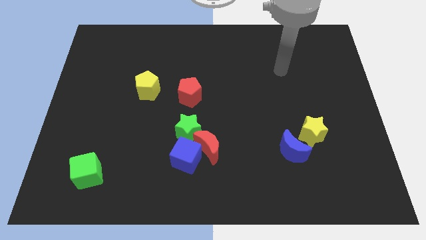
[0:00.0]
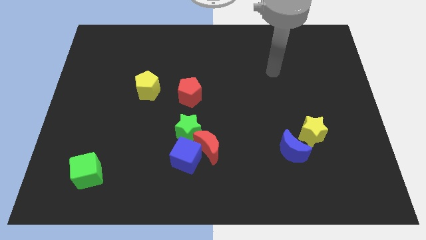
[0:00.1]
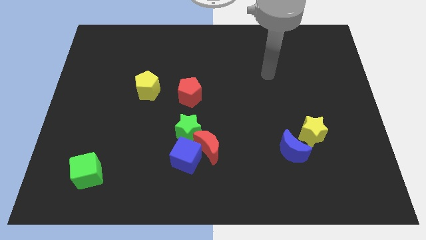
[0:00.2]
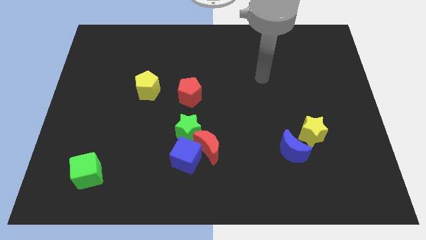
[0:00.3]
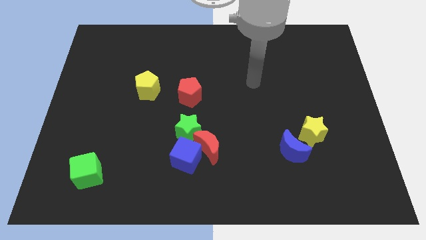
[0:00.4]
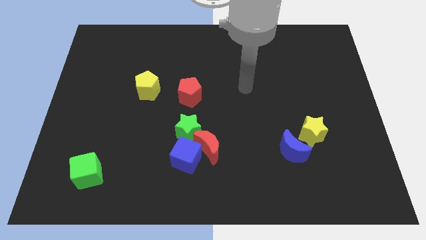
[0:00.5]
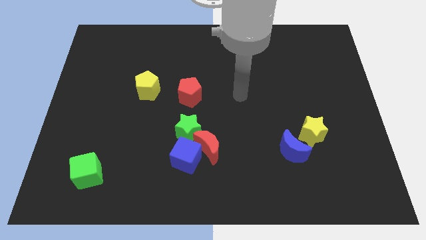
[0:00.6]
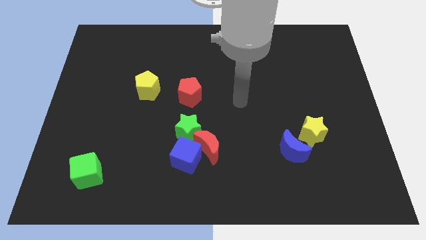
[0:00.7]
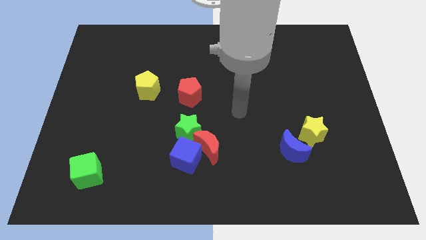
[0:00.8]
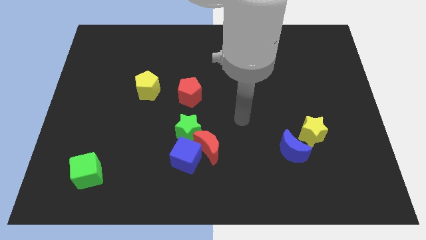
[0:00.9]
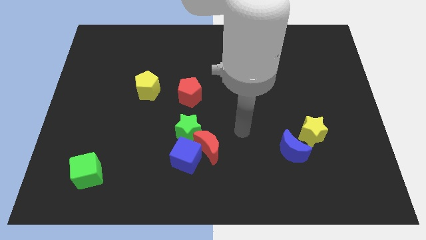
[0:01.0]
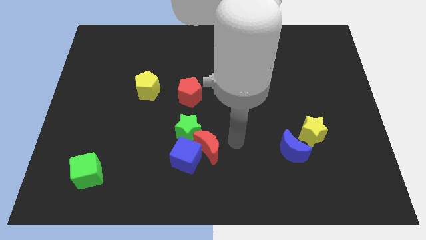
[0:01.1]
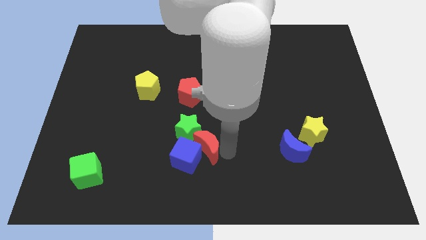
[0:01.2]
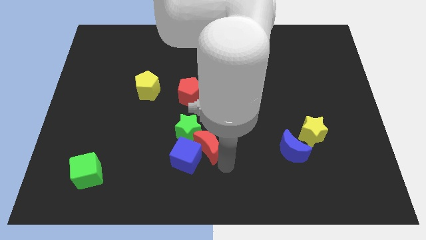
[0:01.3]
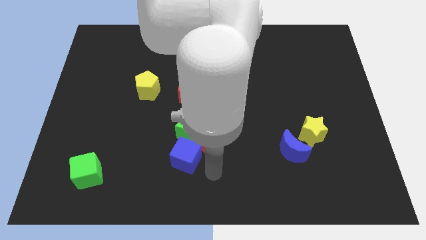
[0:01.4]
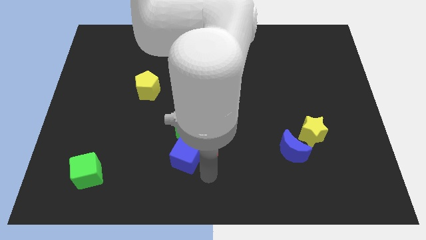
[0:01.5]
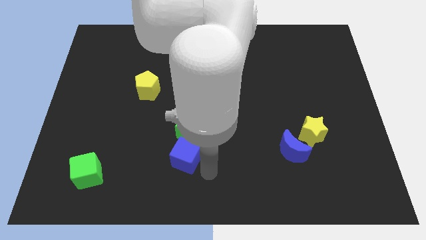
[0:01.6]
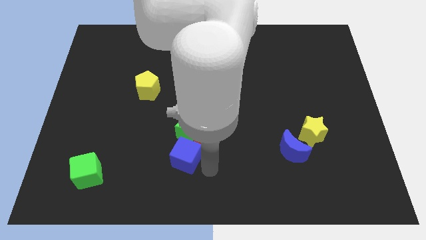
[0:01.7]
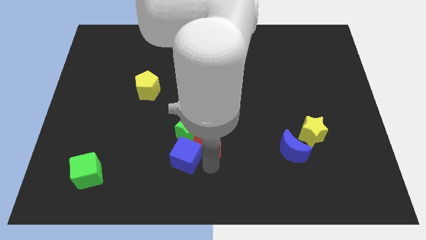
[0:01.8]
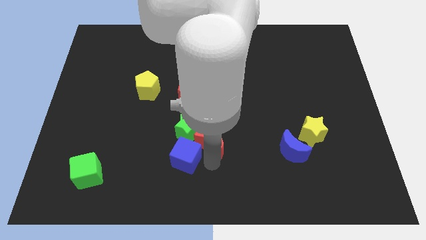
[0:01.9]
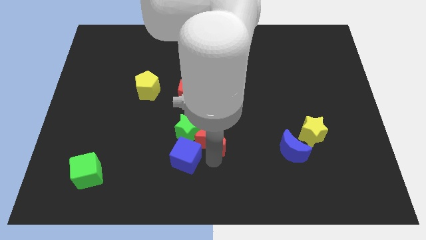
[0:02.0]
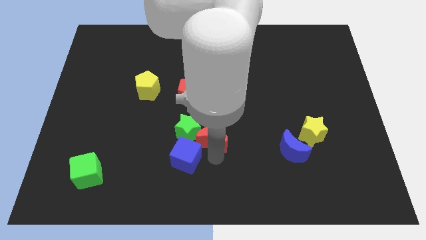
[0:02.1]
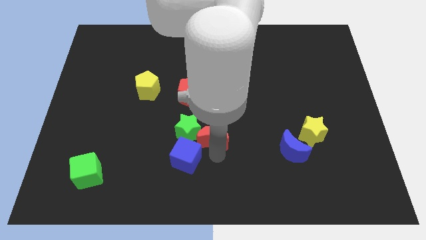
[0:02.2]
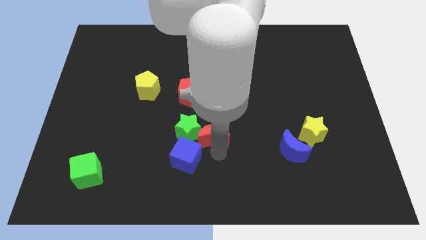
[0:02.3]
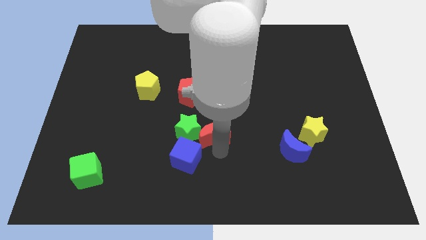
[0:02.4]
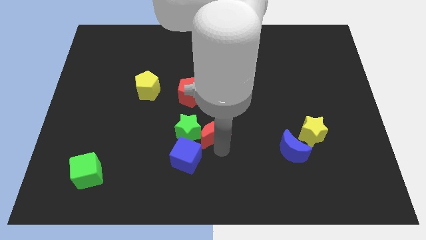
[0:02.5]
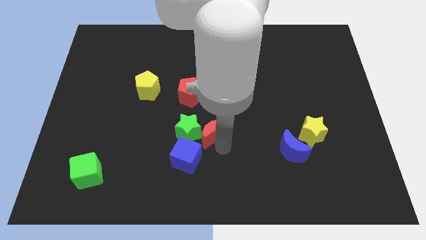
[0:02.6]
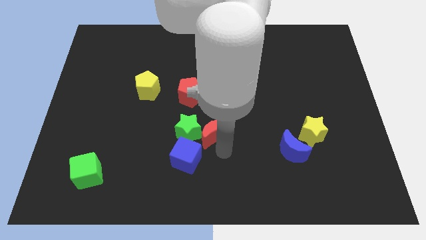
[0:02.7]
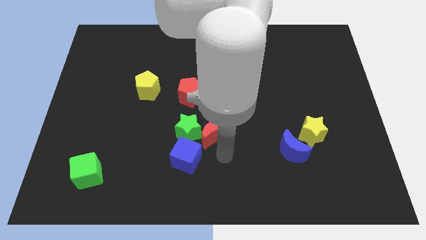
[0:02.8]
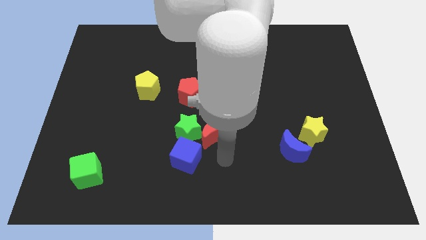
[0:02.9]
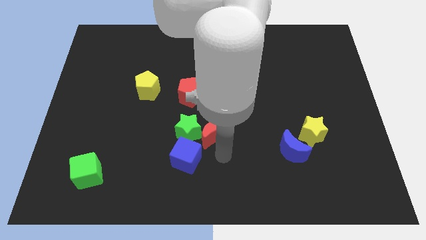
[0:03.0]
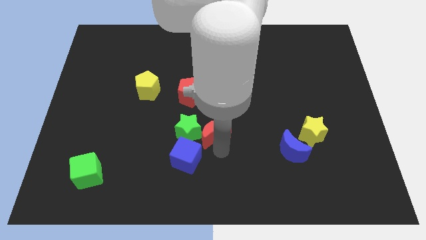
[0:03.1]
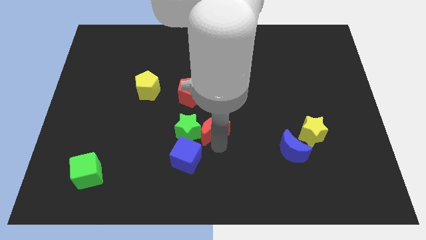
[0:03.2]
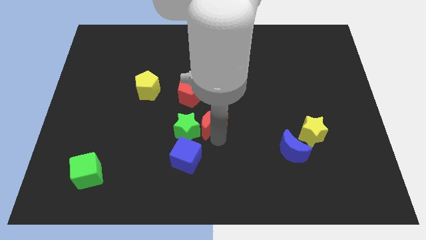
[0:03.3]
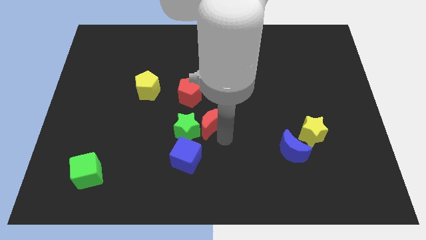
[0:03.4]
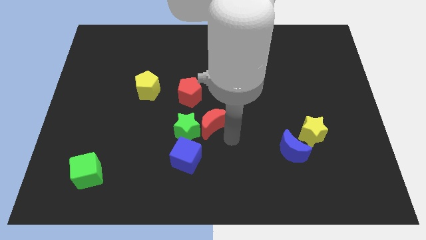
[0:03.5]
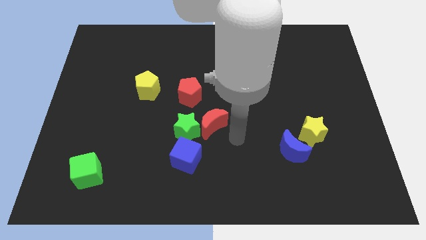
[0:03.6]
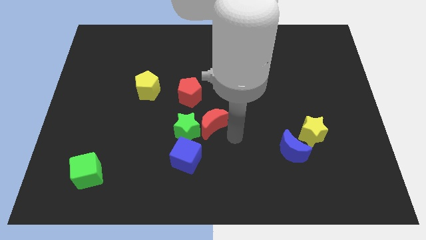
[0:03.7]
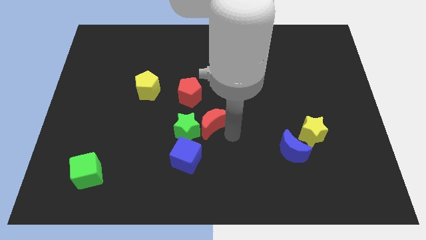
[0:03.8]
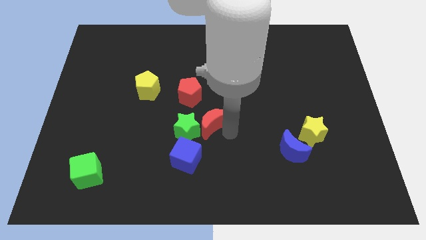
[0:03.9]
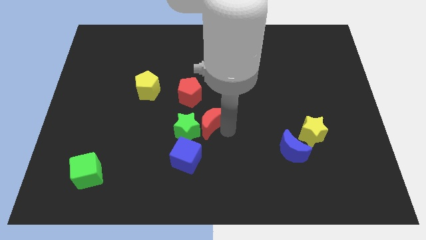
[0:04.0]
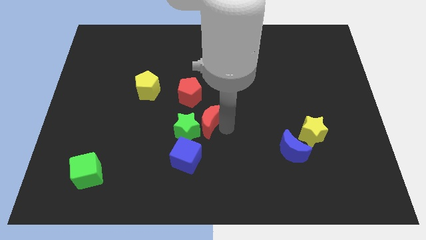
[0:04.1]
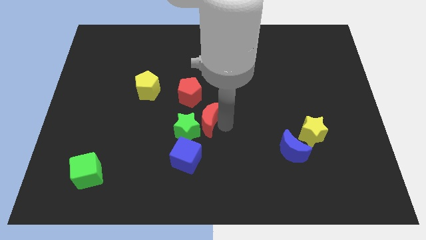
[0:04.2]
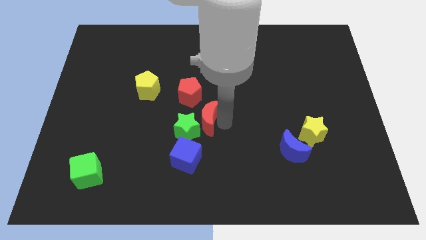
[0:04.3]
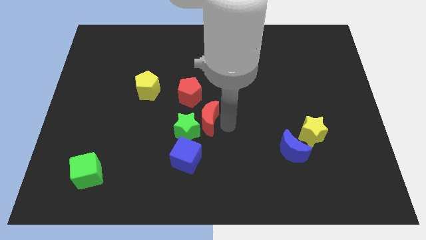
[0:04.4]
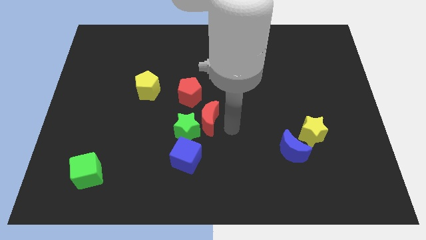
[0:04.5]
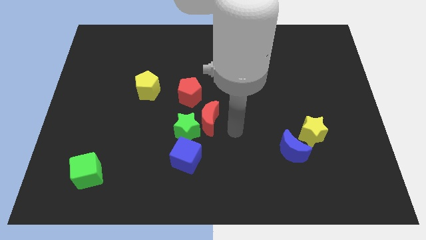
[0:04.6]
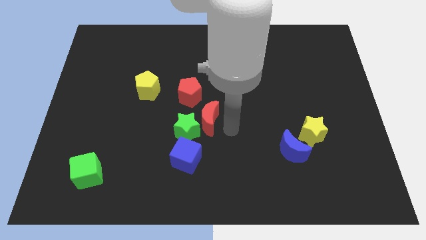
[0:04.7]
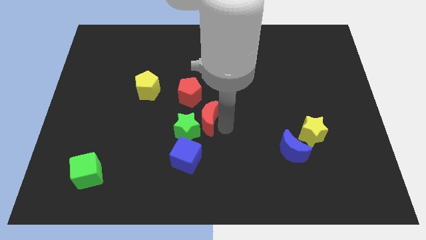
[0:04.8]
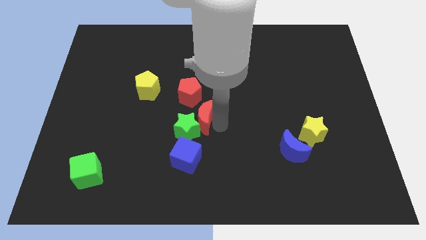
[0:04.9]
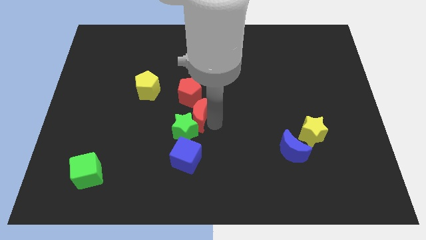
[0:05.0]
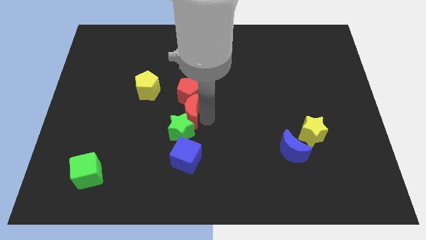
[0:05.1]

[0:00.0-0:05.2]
slide the red moon diagonally down and to the left of the red pentagon

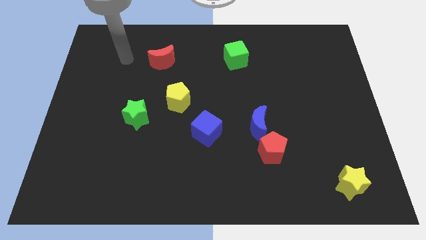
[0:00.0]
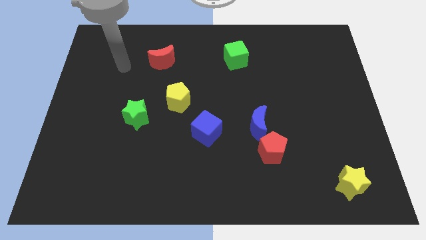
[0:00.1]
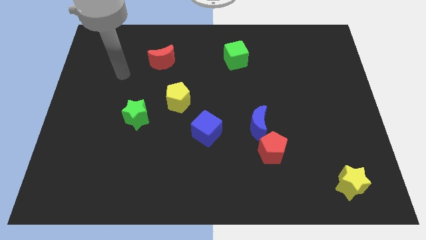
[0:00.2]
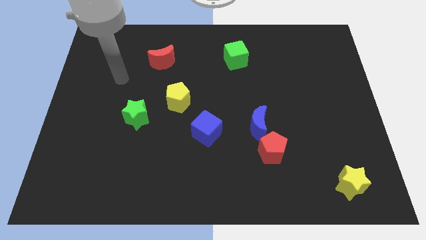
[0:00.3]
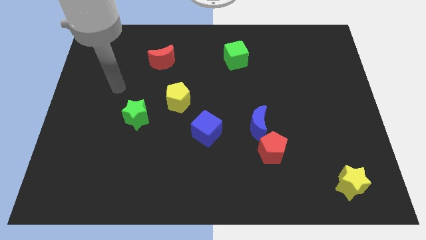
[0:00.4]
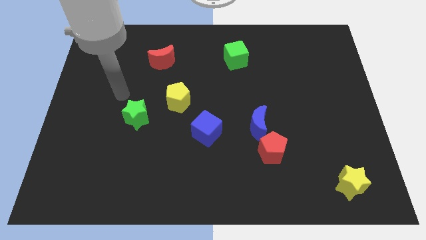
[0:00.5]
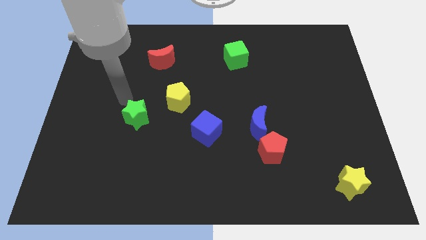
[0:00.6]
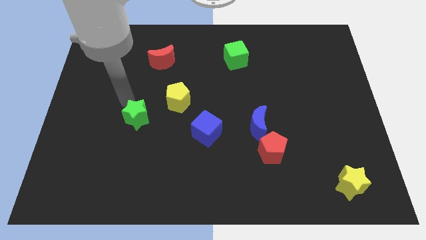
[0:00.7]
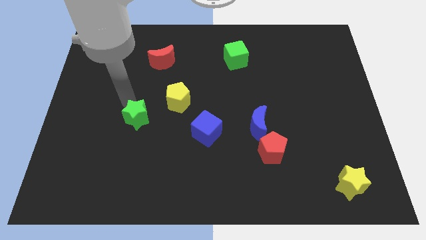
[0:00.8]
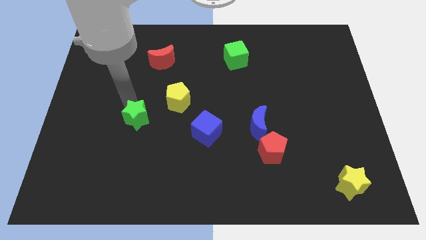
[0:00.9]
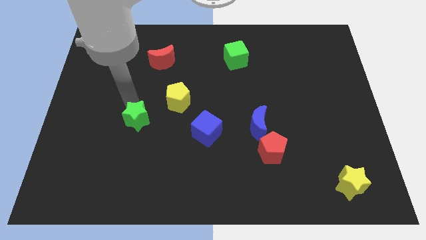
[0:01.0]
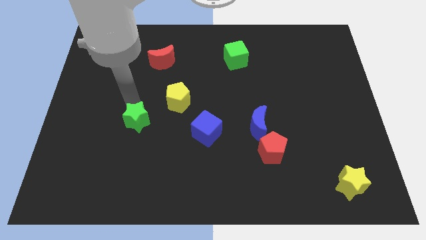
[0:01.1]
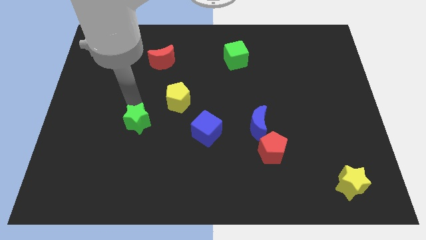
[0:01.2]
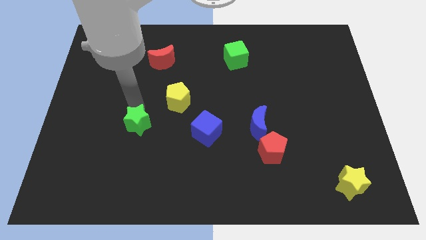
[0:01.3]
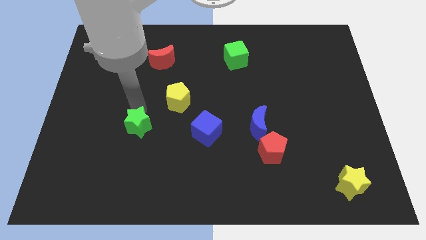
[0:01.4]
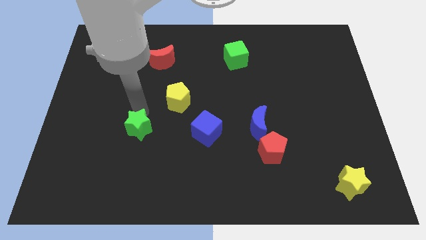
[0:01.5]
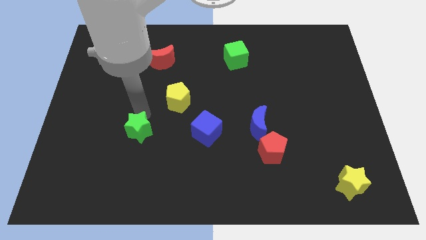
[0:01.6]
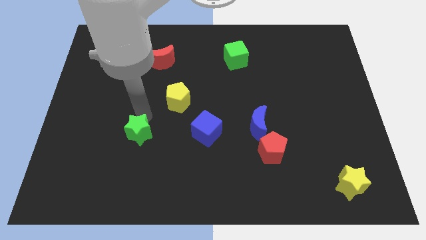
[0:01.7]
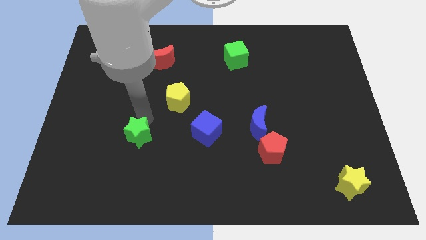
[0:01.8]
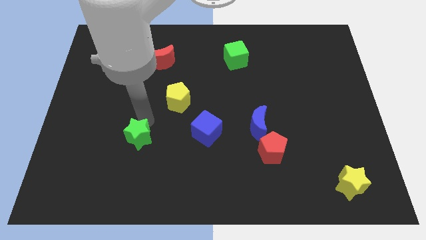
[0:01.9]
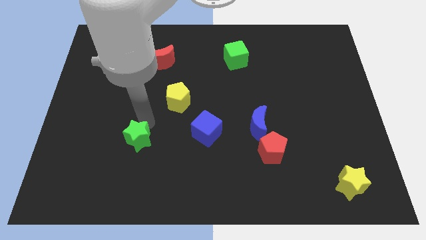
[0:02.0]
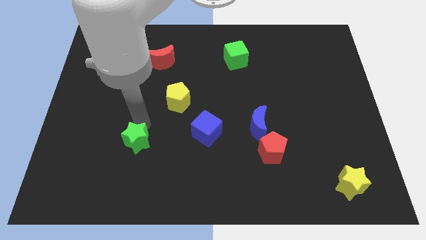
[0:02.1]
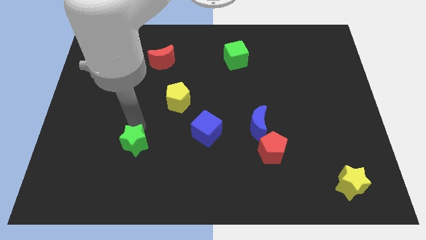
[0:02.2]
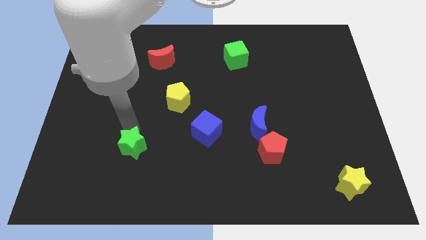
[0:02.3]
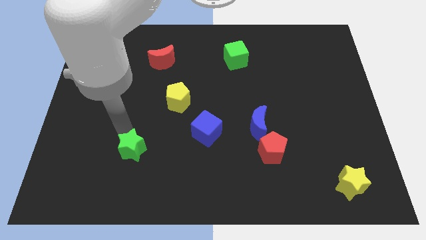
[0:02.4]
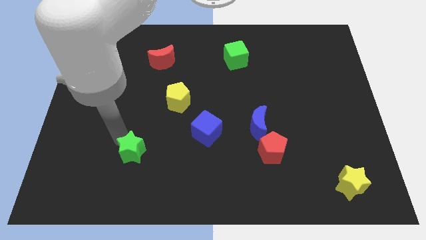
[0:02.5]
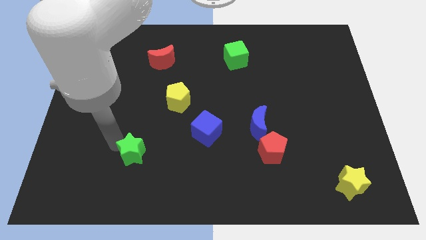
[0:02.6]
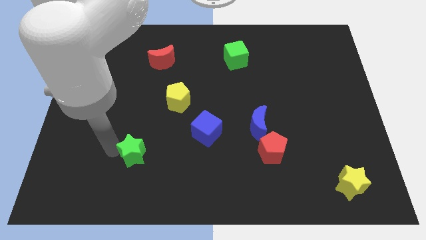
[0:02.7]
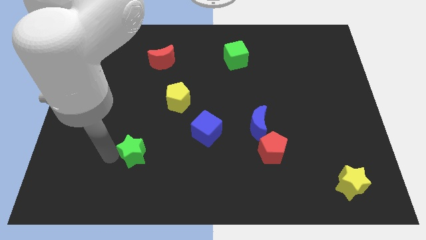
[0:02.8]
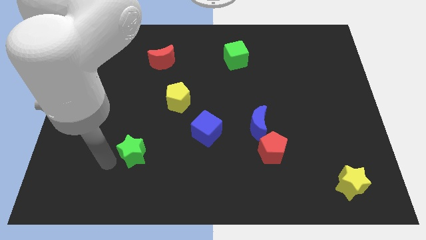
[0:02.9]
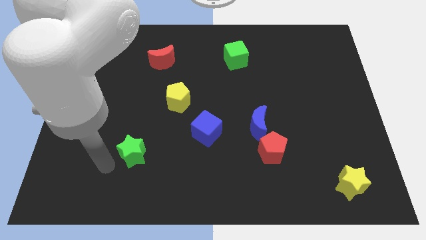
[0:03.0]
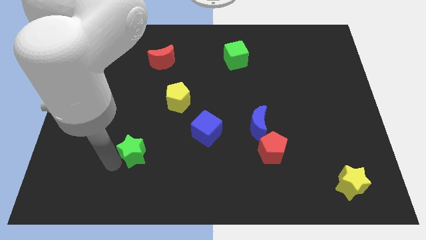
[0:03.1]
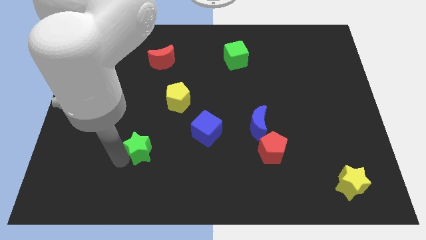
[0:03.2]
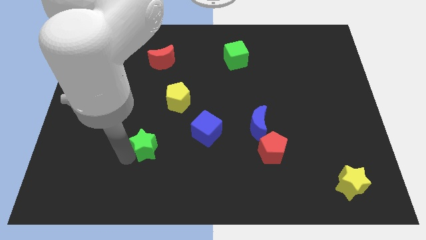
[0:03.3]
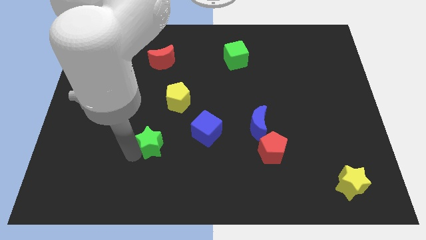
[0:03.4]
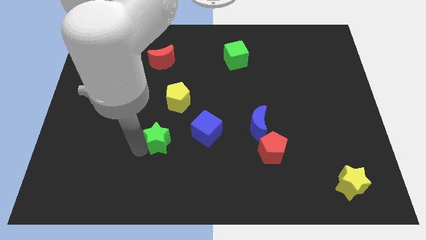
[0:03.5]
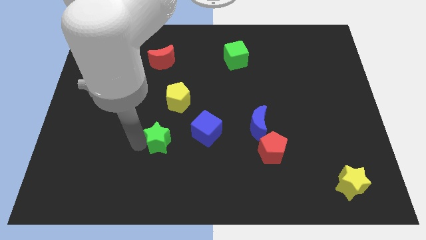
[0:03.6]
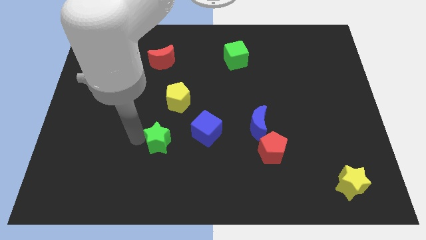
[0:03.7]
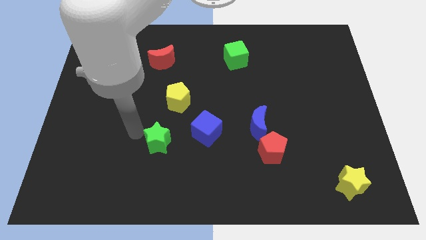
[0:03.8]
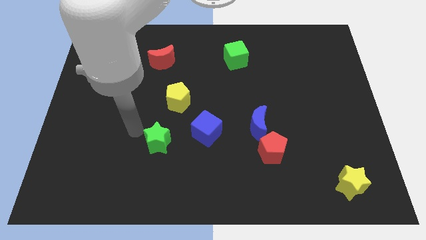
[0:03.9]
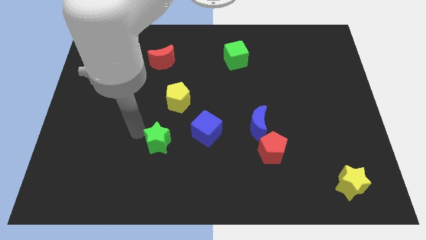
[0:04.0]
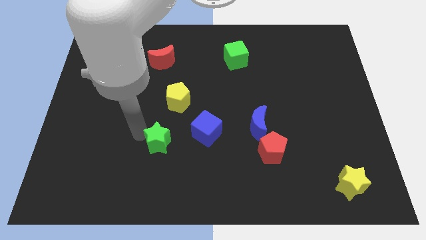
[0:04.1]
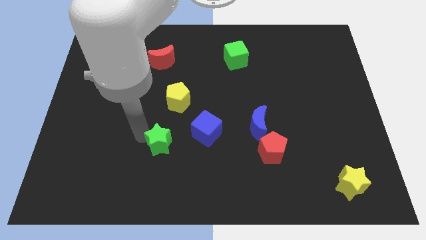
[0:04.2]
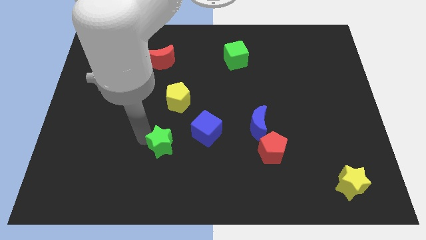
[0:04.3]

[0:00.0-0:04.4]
put the green star to the bottom left of the blue cube
